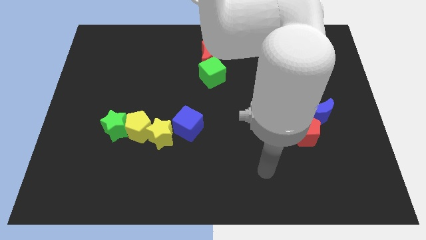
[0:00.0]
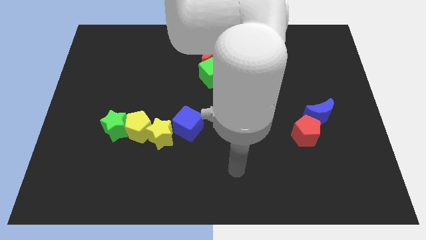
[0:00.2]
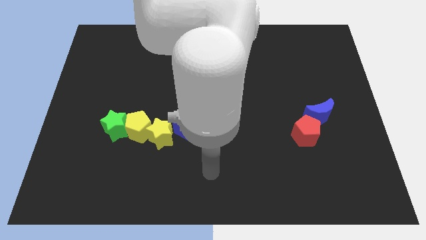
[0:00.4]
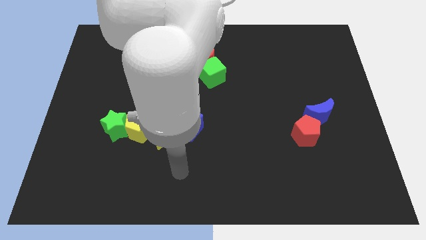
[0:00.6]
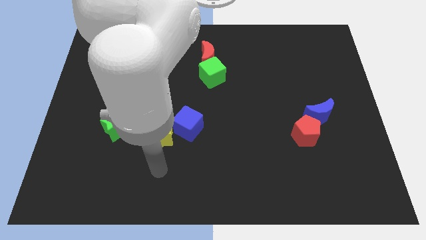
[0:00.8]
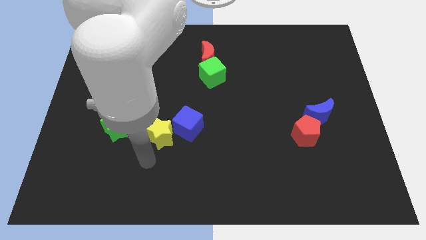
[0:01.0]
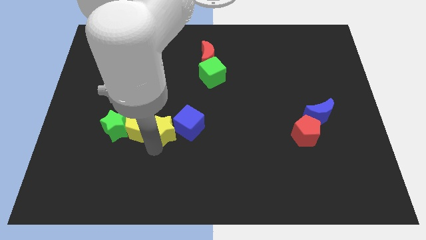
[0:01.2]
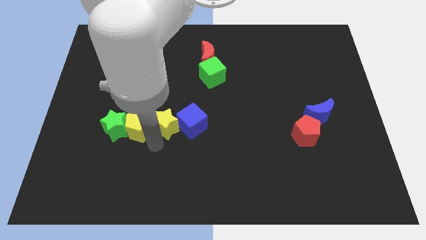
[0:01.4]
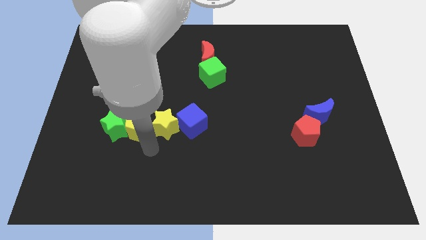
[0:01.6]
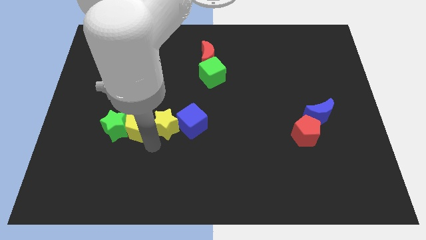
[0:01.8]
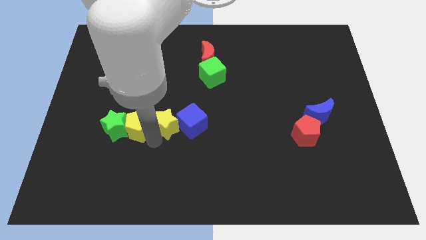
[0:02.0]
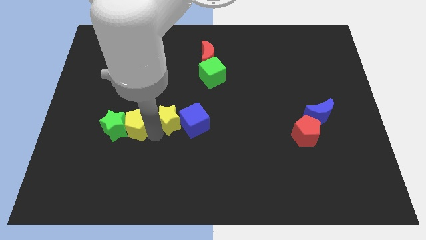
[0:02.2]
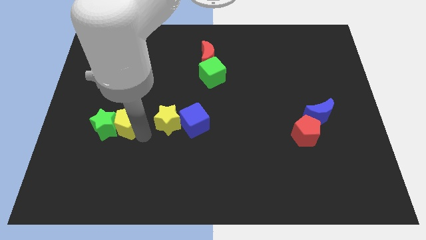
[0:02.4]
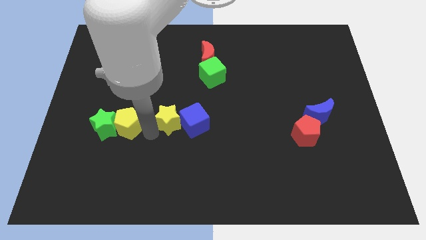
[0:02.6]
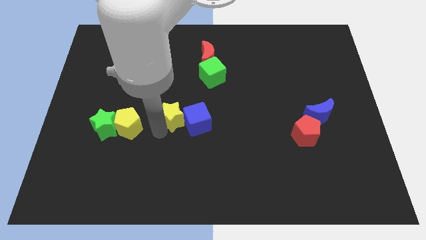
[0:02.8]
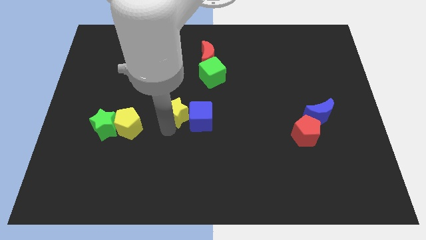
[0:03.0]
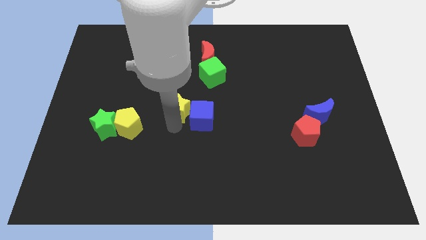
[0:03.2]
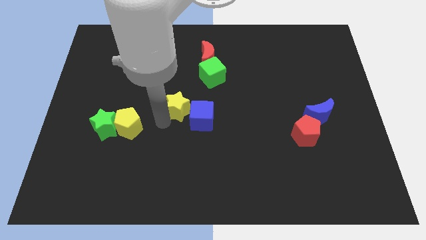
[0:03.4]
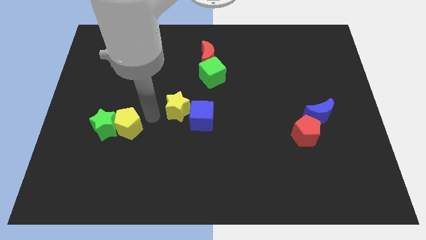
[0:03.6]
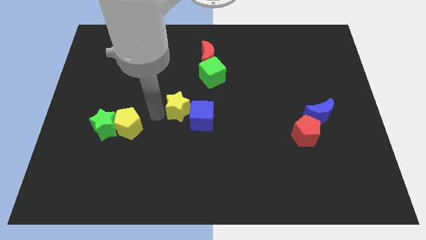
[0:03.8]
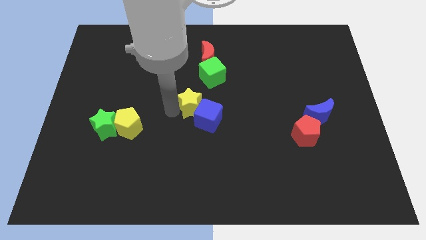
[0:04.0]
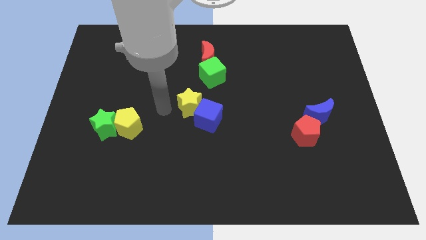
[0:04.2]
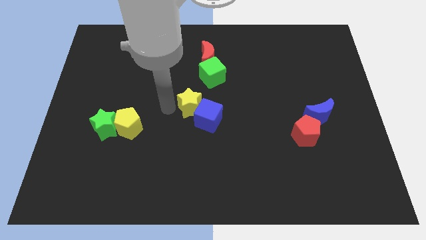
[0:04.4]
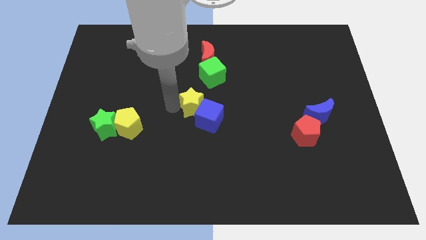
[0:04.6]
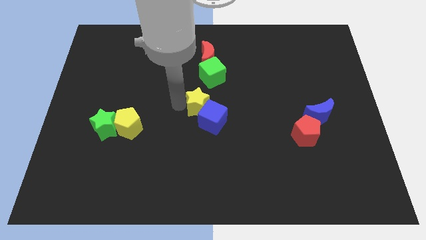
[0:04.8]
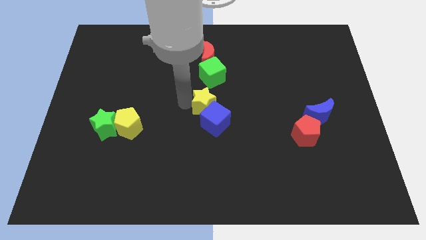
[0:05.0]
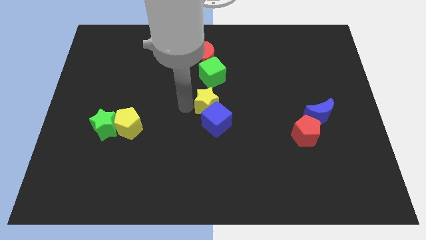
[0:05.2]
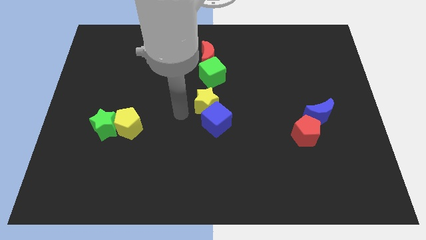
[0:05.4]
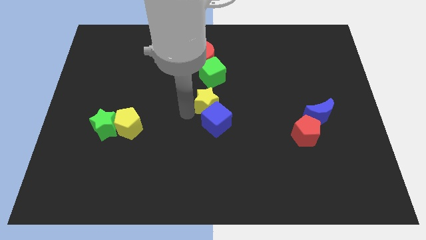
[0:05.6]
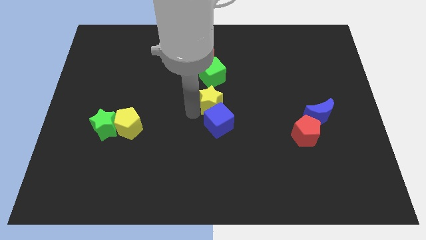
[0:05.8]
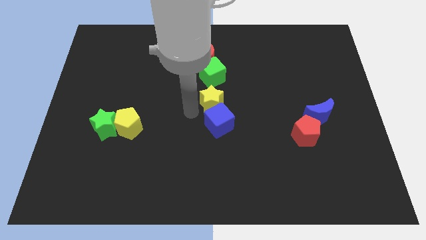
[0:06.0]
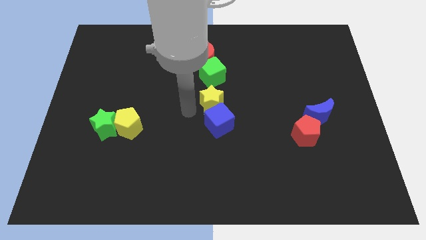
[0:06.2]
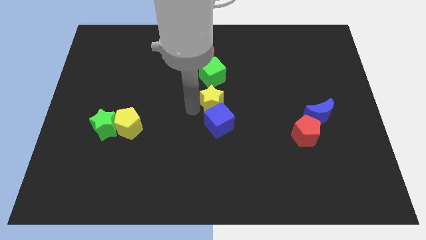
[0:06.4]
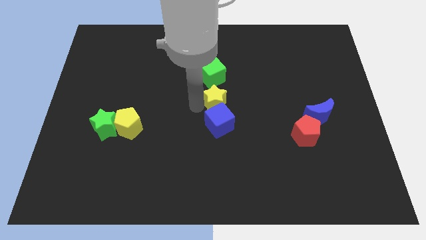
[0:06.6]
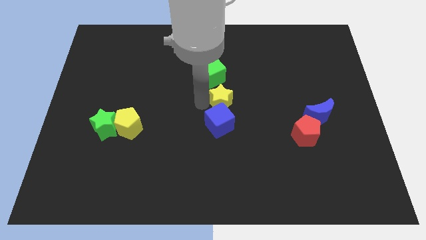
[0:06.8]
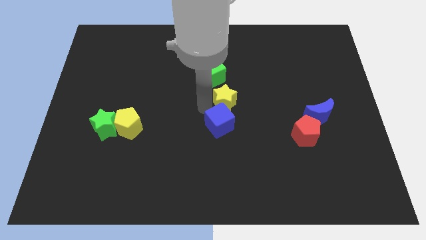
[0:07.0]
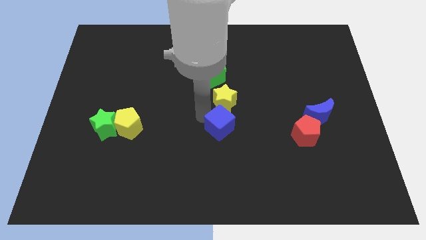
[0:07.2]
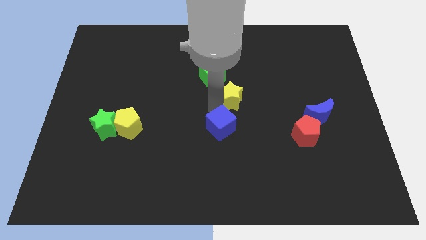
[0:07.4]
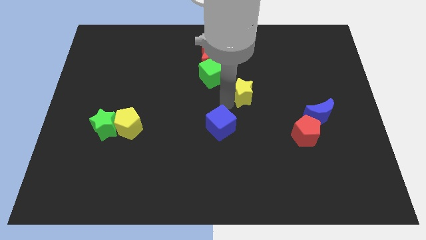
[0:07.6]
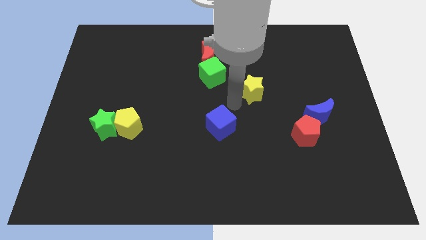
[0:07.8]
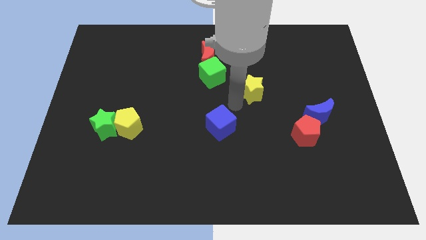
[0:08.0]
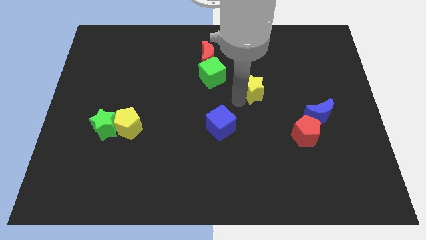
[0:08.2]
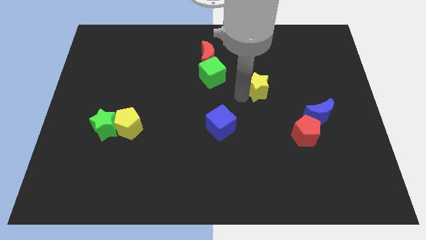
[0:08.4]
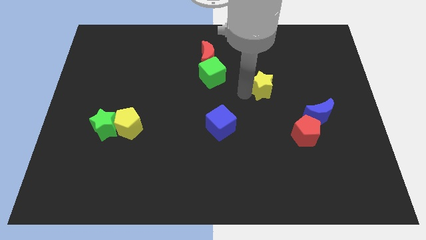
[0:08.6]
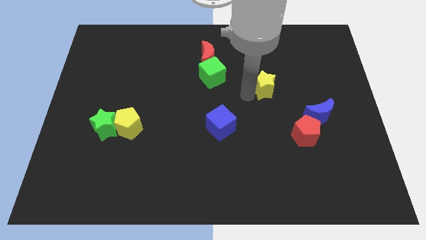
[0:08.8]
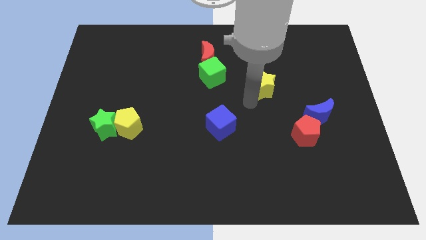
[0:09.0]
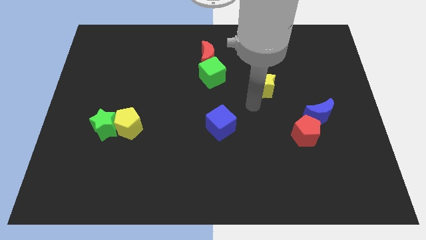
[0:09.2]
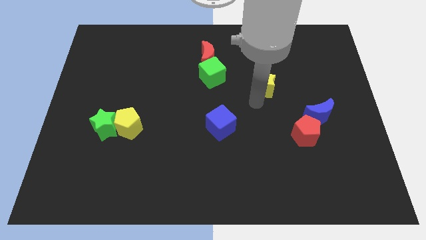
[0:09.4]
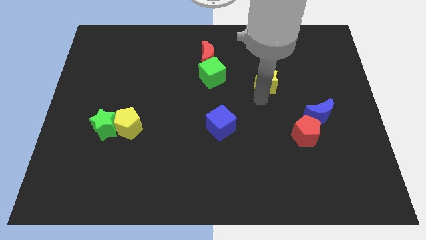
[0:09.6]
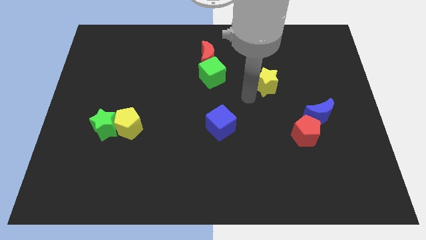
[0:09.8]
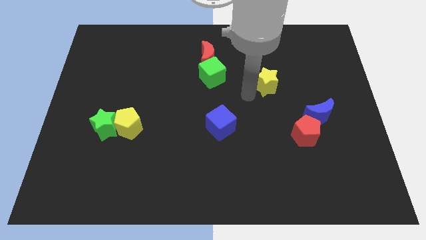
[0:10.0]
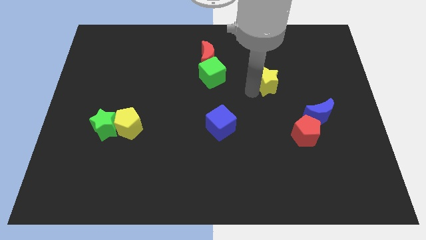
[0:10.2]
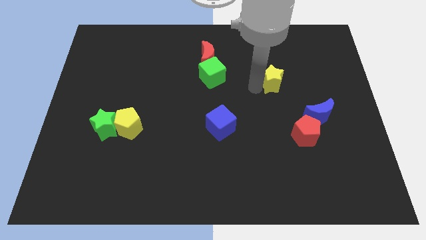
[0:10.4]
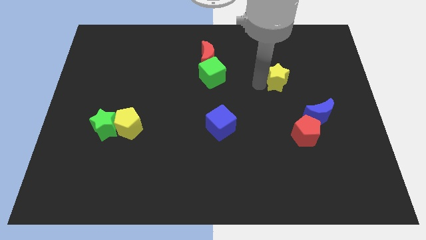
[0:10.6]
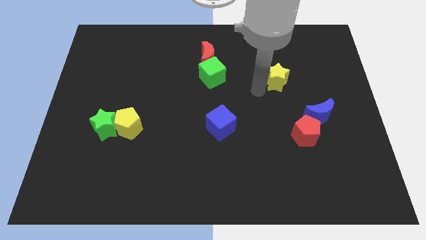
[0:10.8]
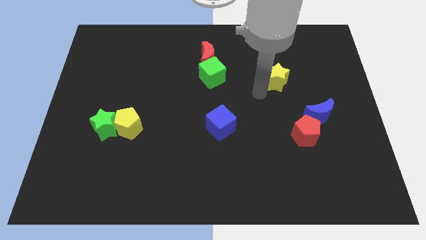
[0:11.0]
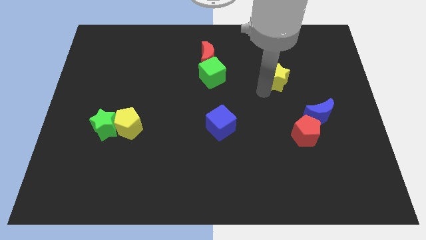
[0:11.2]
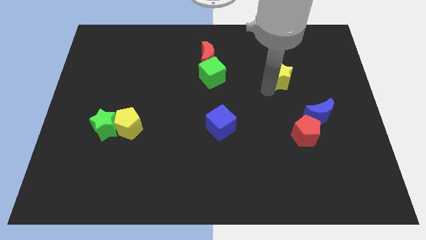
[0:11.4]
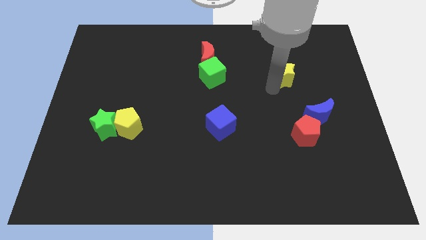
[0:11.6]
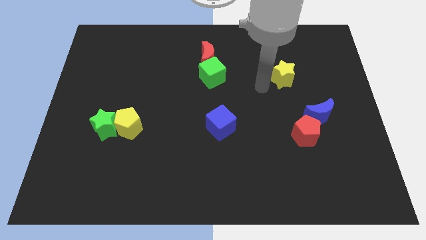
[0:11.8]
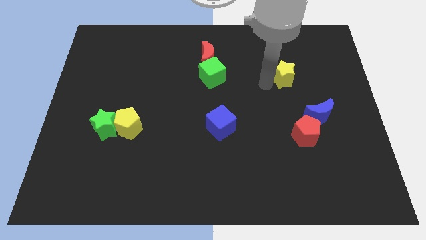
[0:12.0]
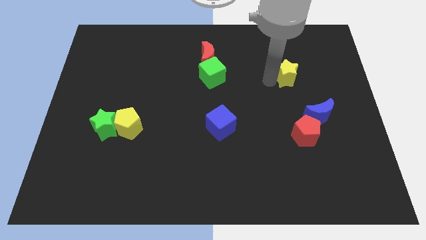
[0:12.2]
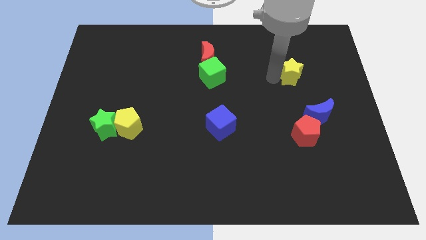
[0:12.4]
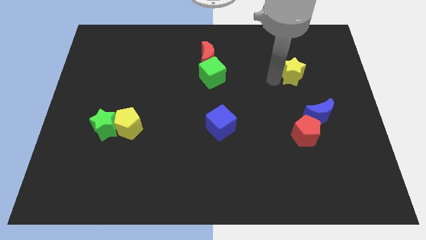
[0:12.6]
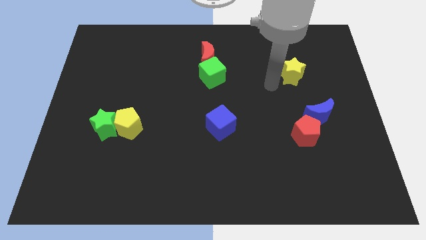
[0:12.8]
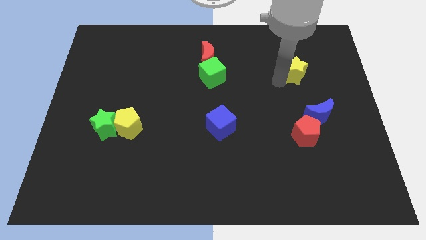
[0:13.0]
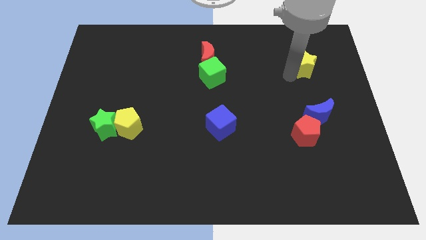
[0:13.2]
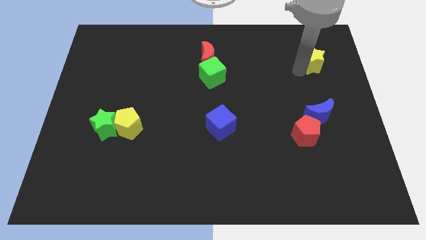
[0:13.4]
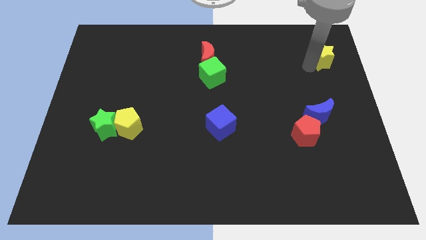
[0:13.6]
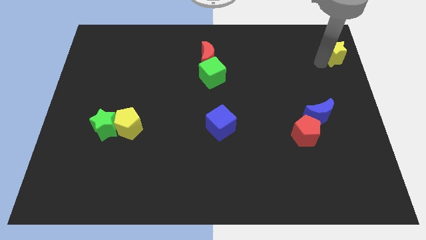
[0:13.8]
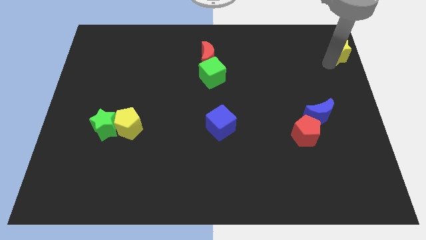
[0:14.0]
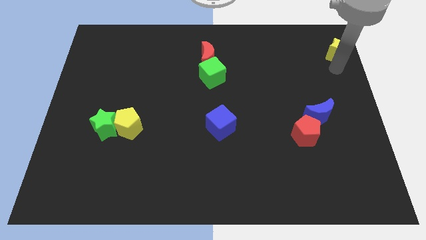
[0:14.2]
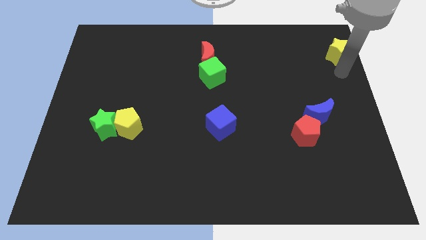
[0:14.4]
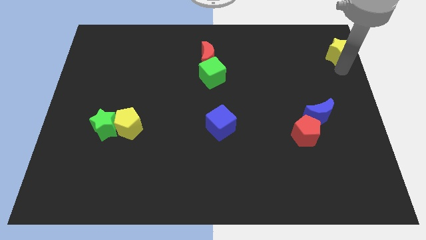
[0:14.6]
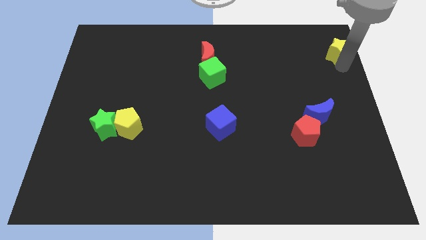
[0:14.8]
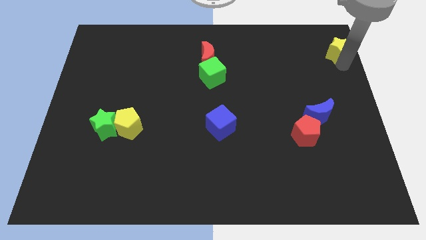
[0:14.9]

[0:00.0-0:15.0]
move the yellow star to the upper right corner
